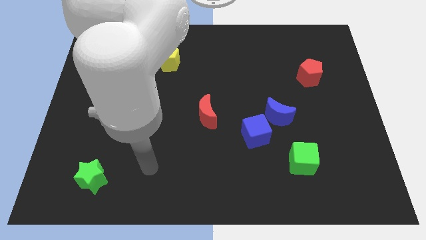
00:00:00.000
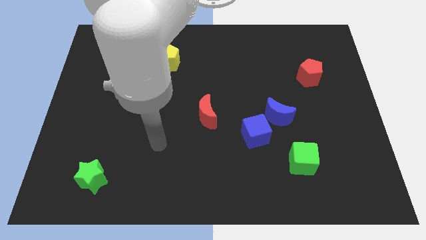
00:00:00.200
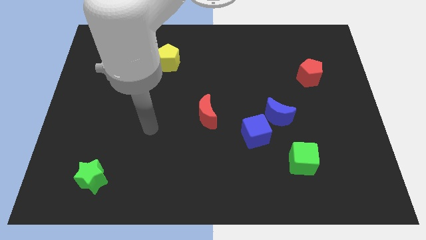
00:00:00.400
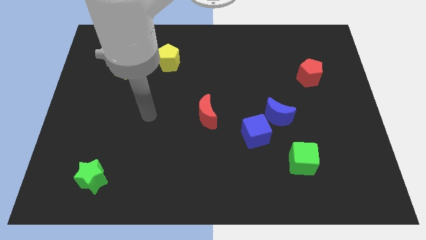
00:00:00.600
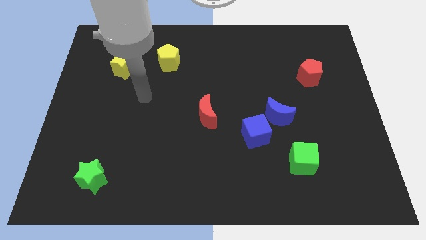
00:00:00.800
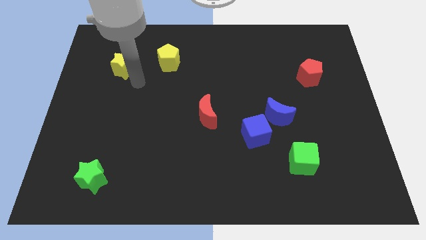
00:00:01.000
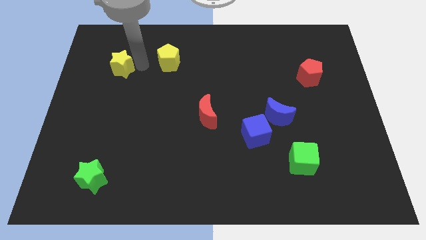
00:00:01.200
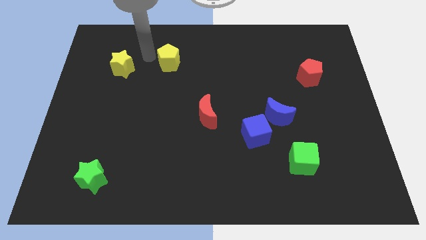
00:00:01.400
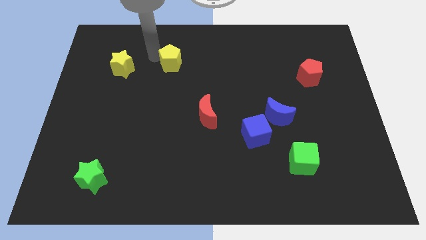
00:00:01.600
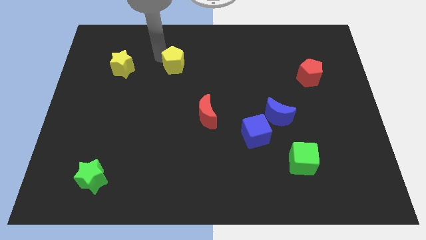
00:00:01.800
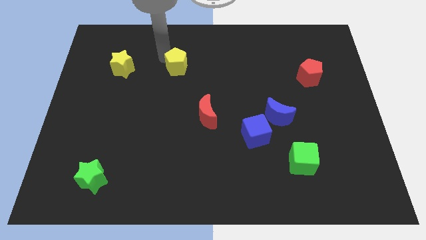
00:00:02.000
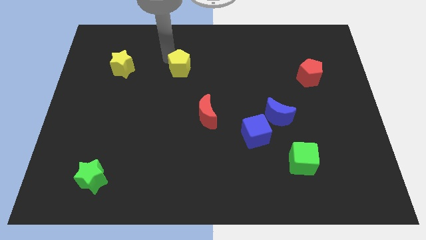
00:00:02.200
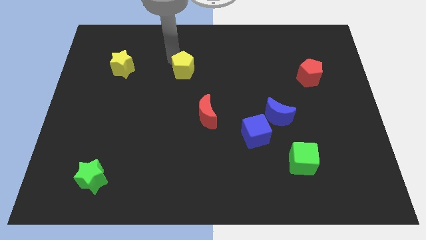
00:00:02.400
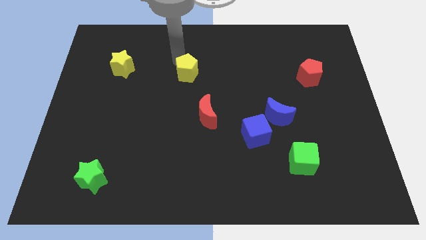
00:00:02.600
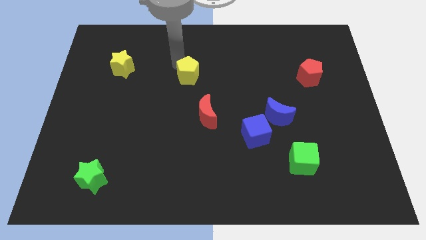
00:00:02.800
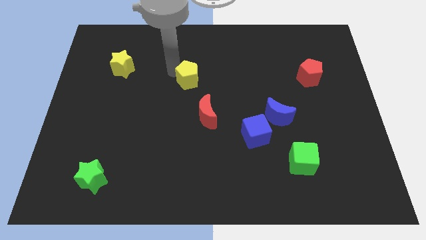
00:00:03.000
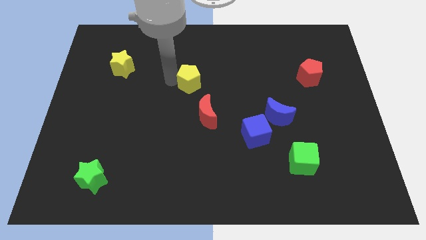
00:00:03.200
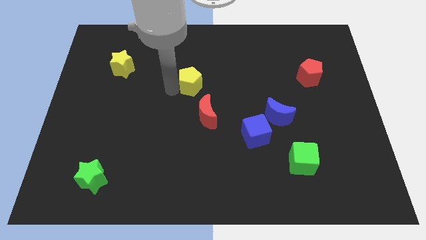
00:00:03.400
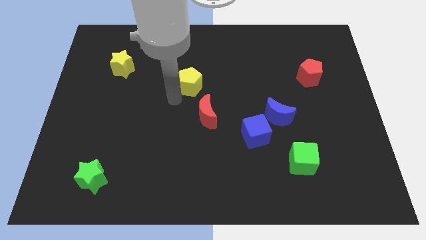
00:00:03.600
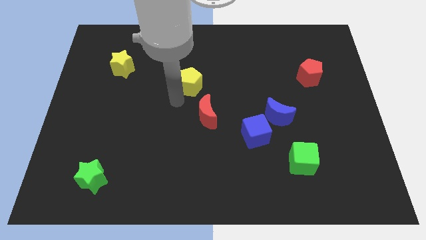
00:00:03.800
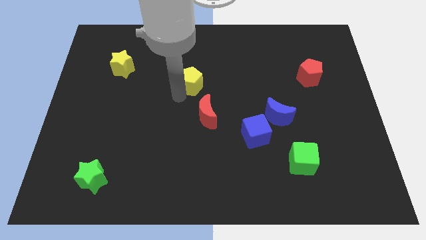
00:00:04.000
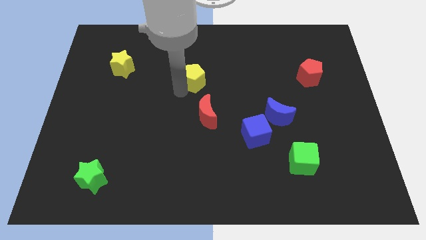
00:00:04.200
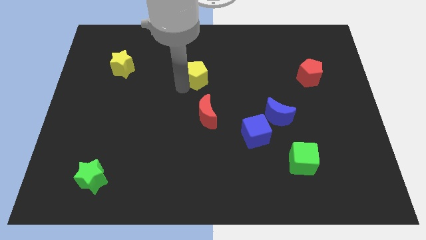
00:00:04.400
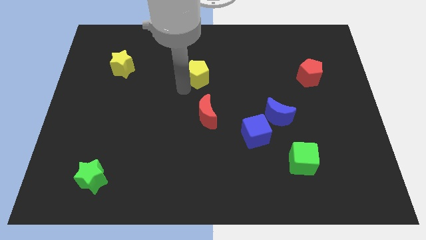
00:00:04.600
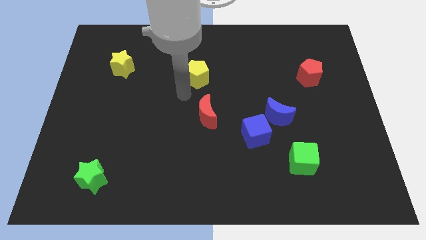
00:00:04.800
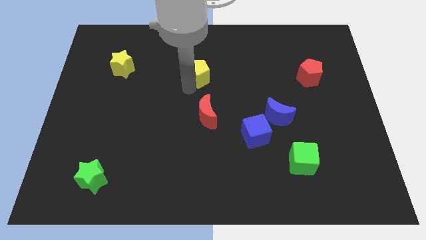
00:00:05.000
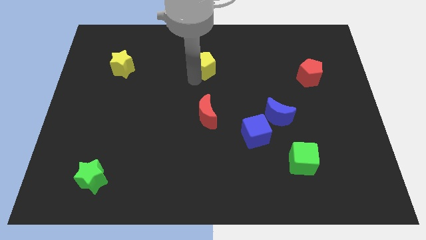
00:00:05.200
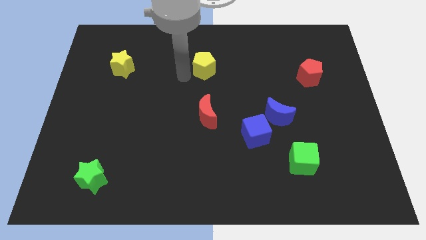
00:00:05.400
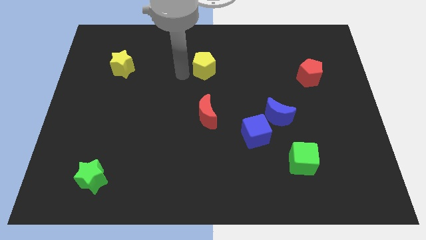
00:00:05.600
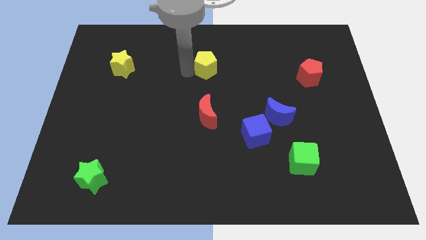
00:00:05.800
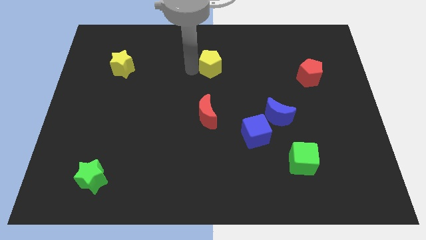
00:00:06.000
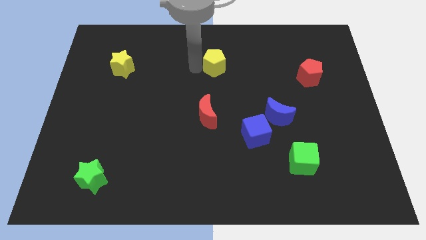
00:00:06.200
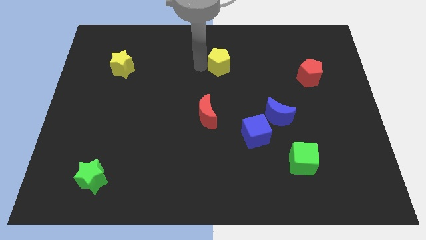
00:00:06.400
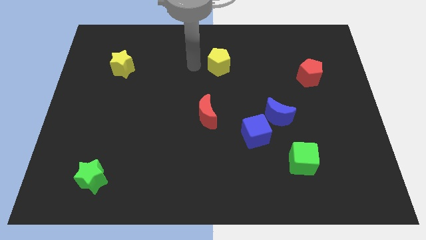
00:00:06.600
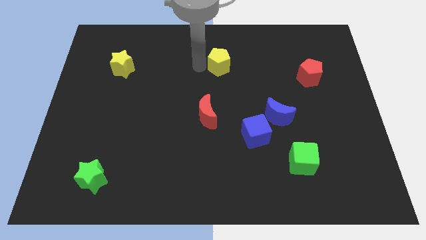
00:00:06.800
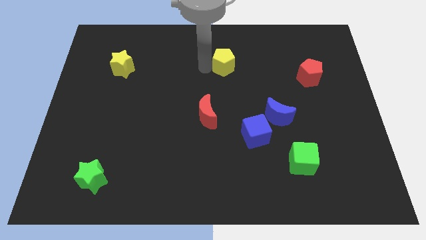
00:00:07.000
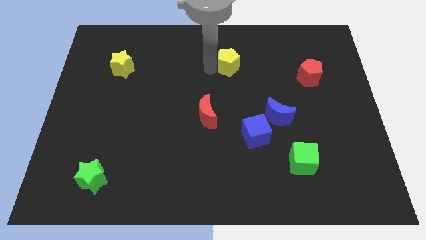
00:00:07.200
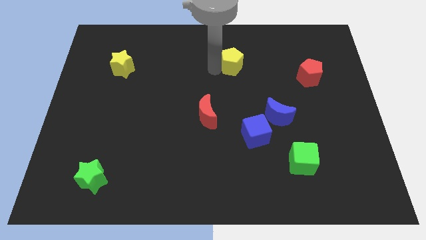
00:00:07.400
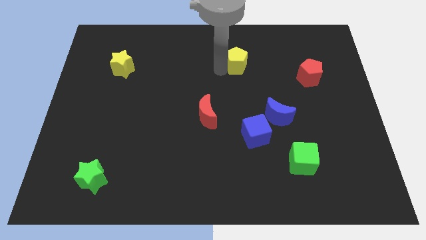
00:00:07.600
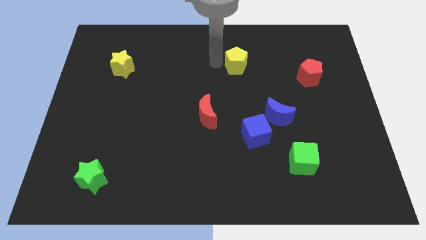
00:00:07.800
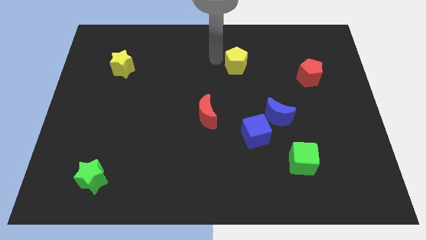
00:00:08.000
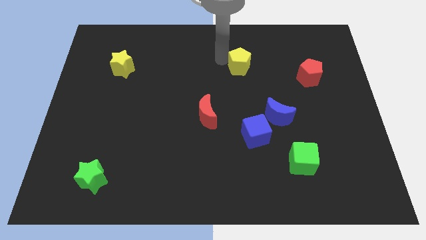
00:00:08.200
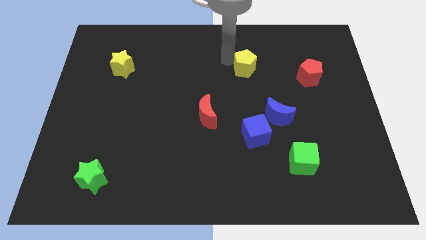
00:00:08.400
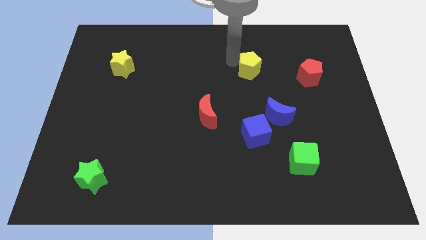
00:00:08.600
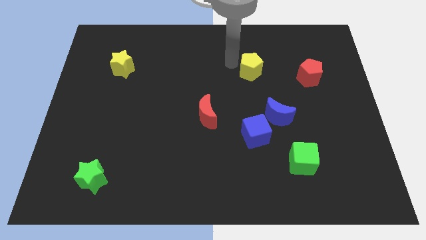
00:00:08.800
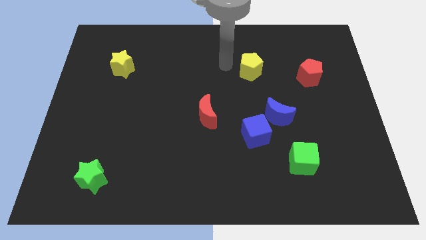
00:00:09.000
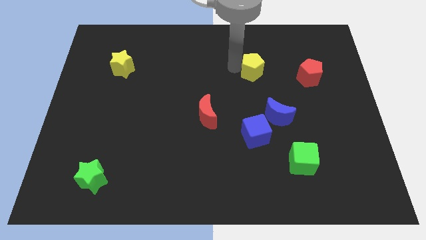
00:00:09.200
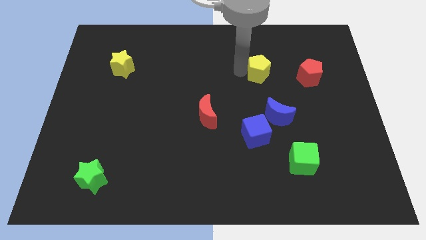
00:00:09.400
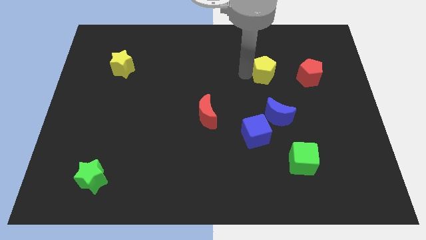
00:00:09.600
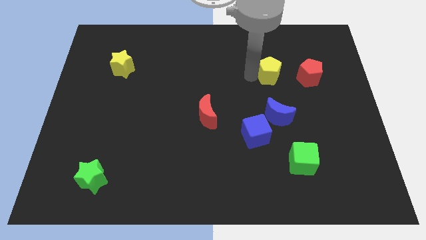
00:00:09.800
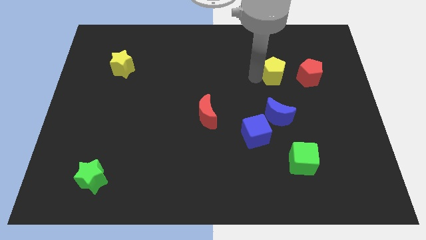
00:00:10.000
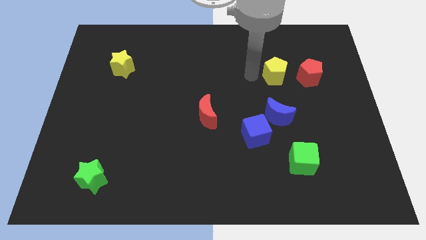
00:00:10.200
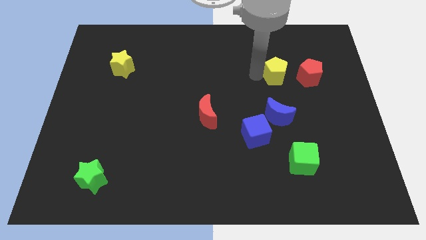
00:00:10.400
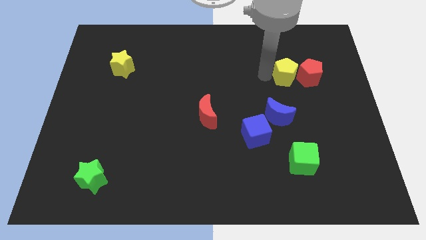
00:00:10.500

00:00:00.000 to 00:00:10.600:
move the yellow pentagon close to the red pentagon

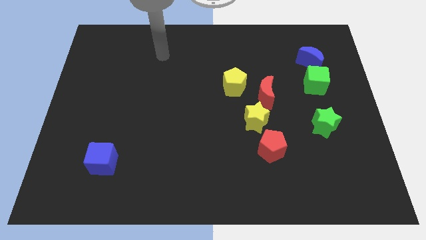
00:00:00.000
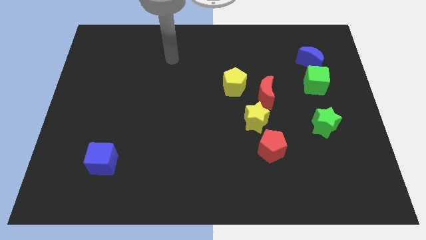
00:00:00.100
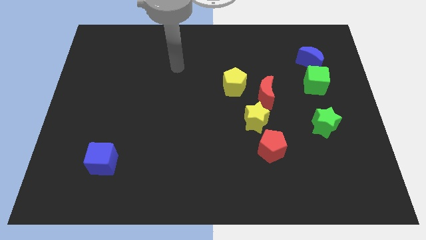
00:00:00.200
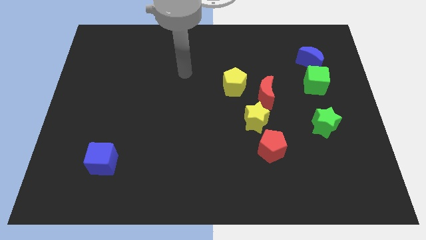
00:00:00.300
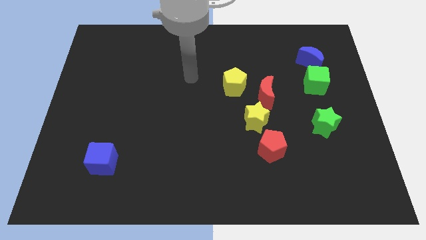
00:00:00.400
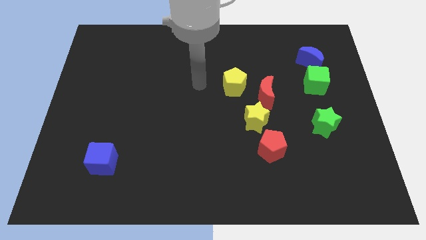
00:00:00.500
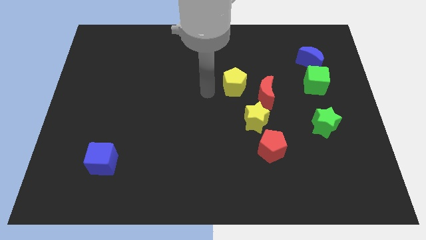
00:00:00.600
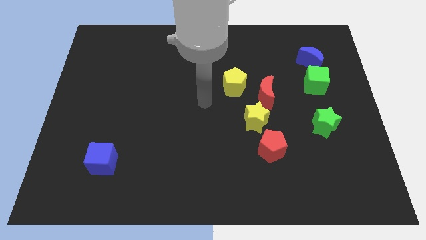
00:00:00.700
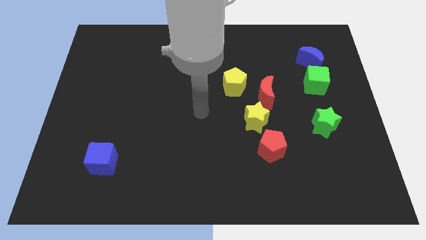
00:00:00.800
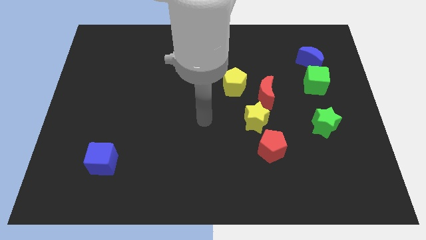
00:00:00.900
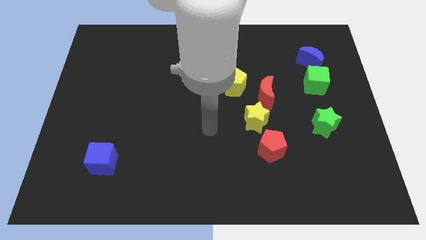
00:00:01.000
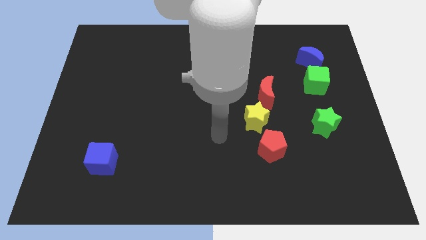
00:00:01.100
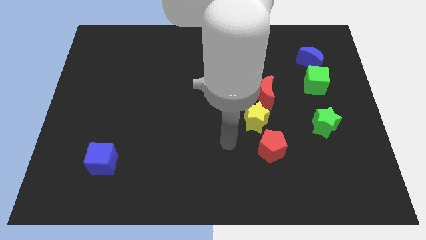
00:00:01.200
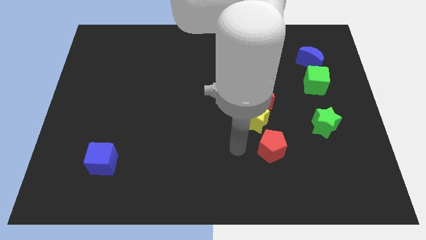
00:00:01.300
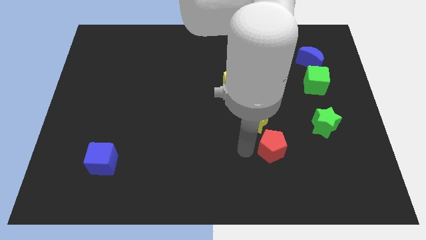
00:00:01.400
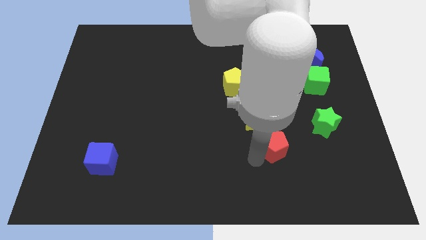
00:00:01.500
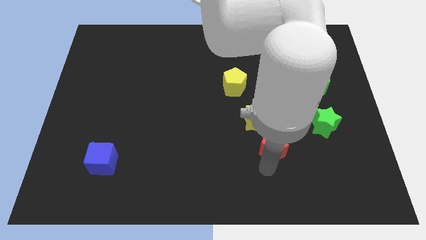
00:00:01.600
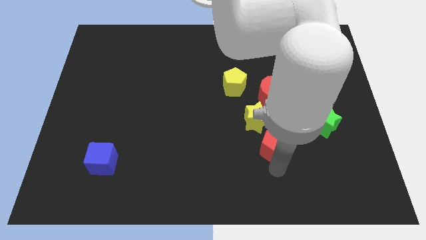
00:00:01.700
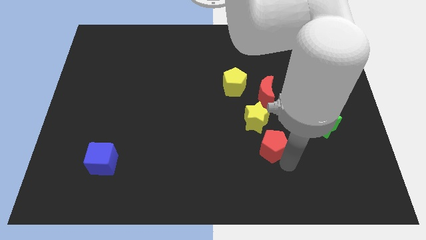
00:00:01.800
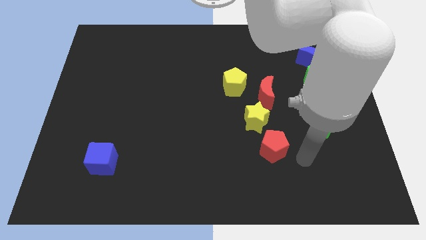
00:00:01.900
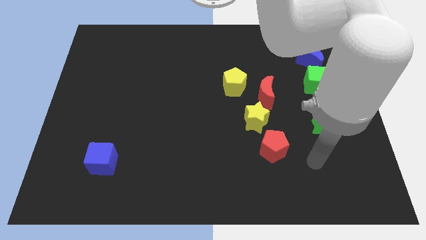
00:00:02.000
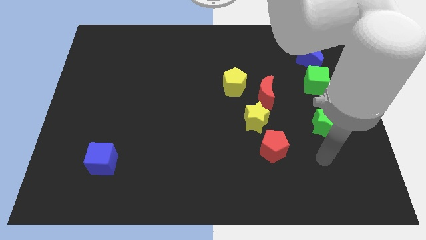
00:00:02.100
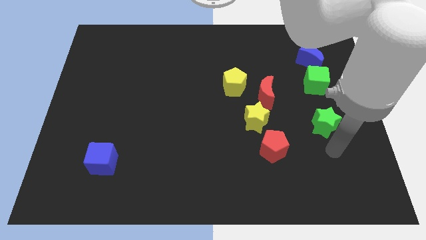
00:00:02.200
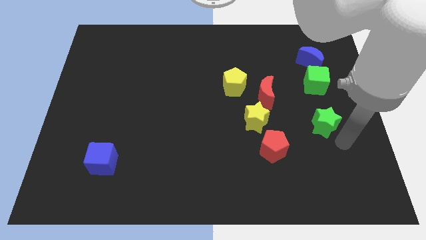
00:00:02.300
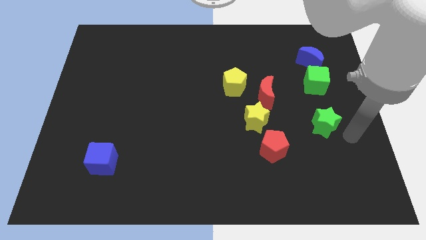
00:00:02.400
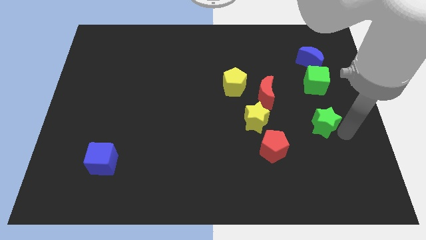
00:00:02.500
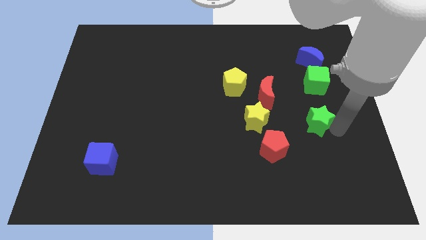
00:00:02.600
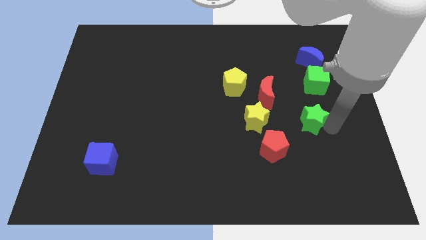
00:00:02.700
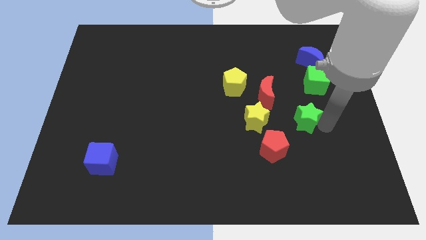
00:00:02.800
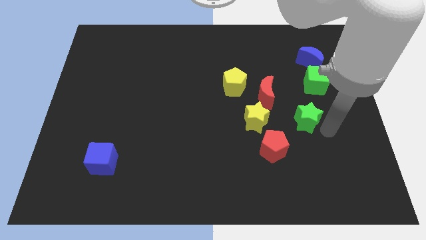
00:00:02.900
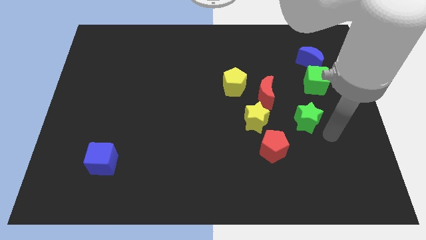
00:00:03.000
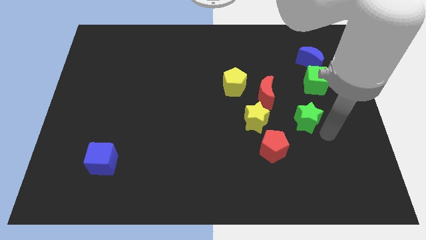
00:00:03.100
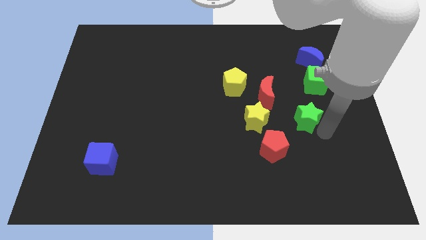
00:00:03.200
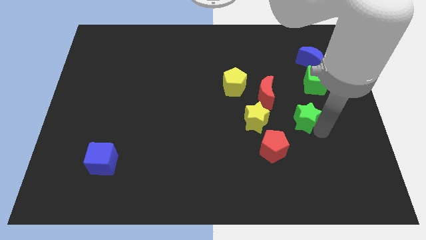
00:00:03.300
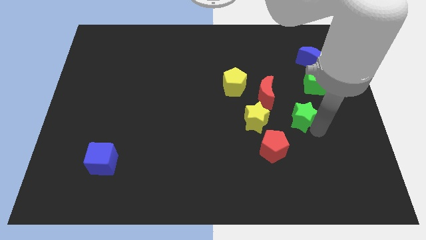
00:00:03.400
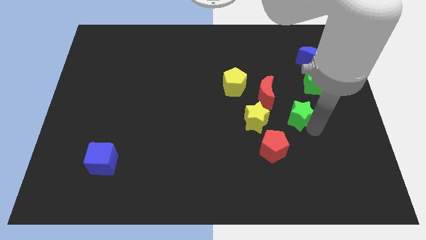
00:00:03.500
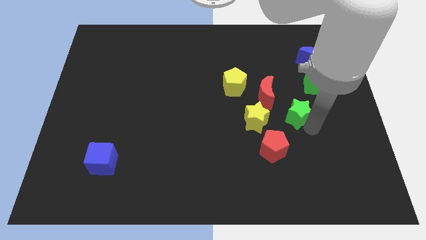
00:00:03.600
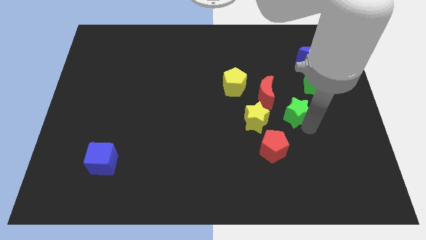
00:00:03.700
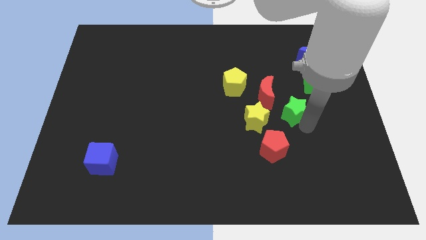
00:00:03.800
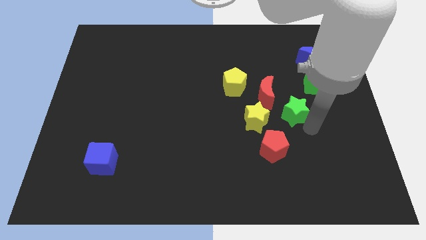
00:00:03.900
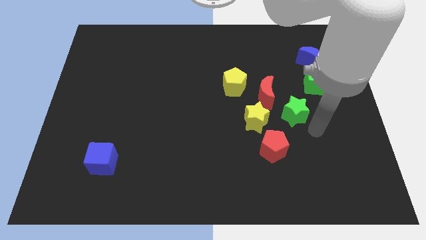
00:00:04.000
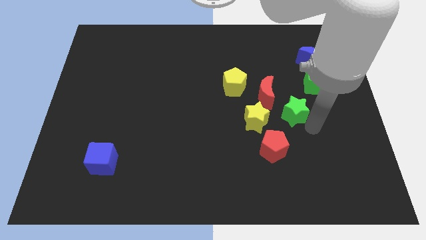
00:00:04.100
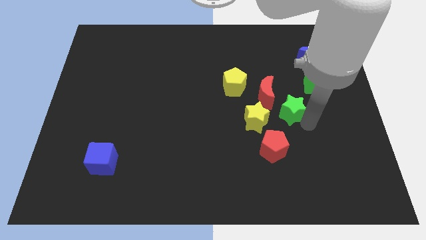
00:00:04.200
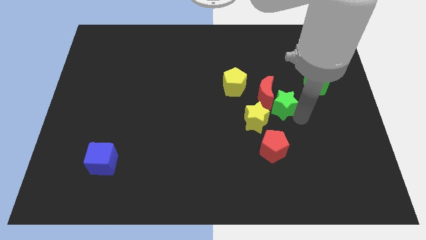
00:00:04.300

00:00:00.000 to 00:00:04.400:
move the green star next to the red moon
